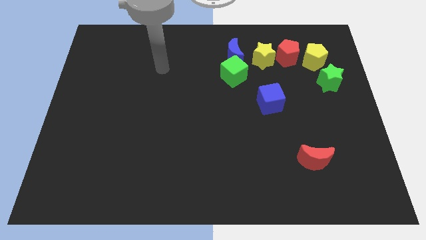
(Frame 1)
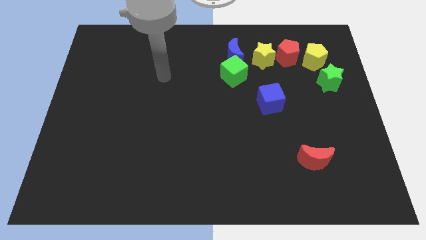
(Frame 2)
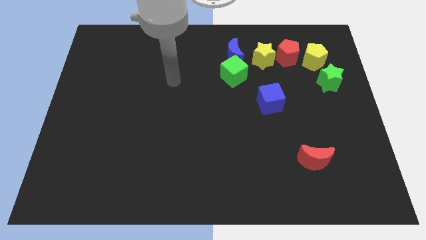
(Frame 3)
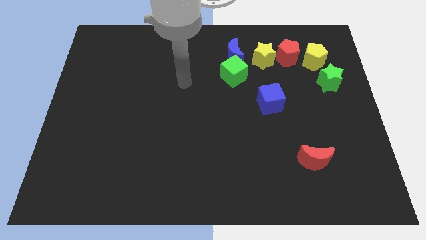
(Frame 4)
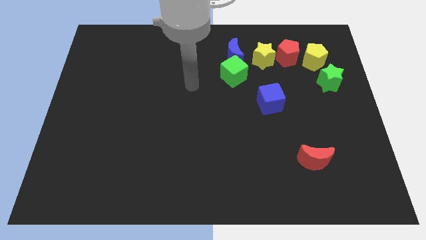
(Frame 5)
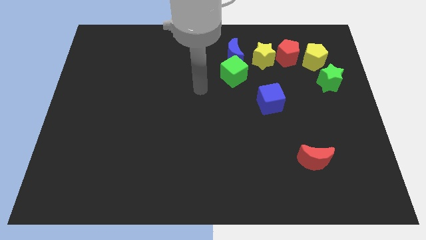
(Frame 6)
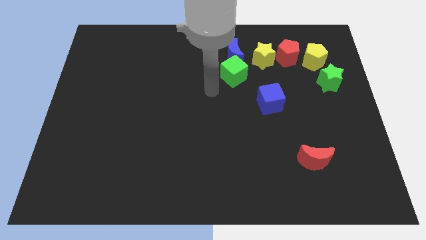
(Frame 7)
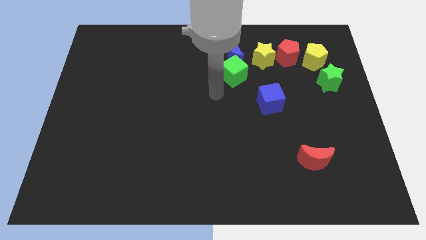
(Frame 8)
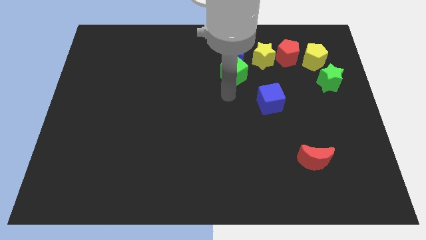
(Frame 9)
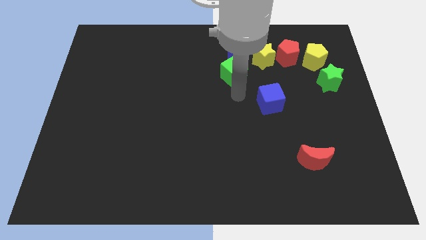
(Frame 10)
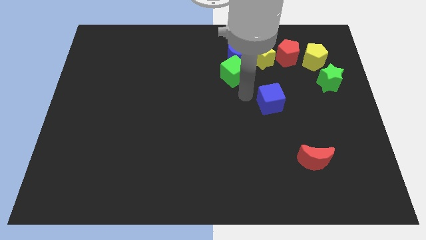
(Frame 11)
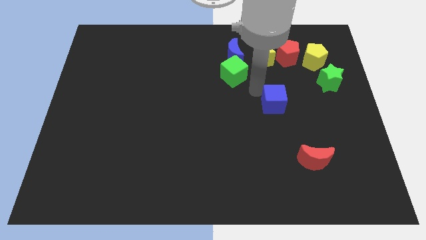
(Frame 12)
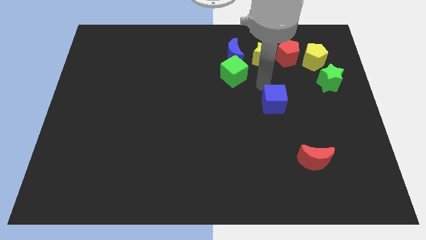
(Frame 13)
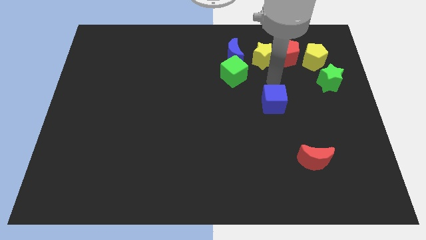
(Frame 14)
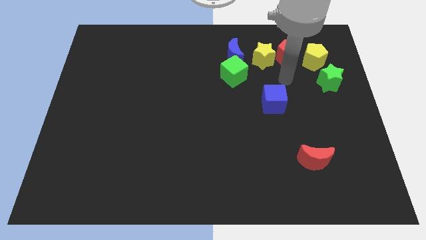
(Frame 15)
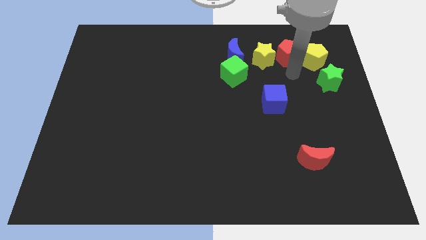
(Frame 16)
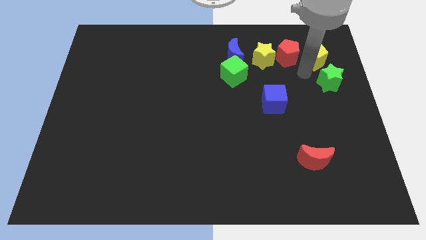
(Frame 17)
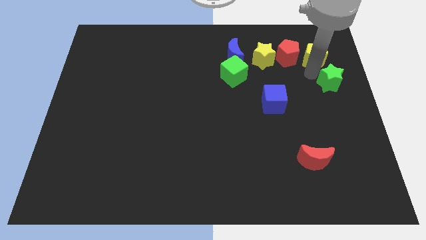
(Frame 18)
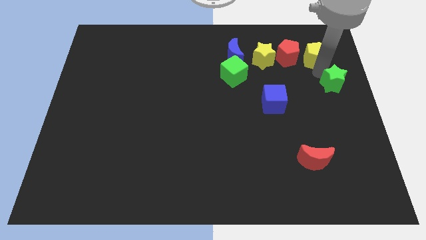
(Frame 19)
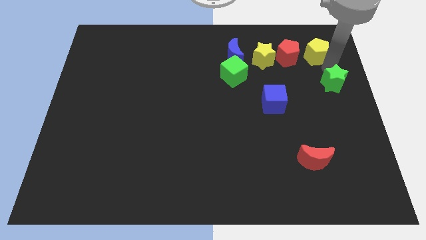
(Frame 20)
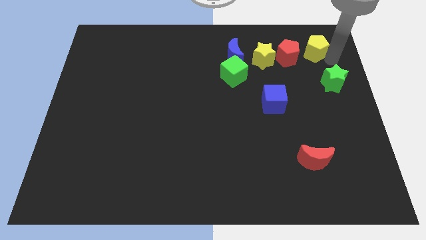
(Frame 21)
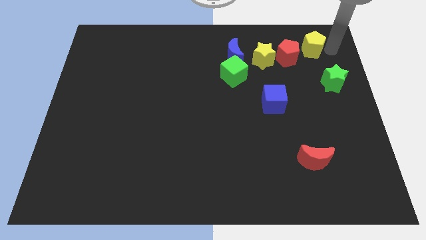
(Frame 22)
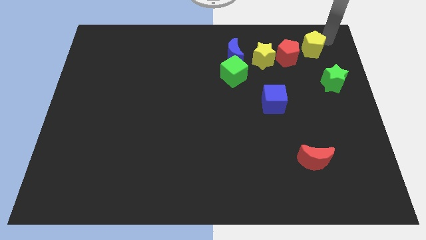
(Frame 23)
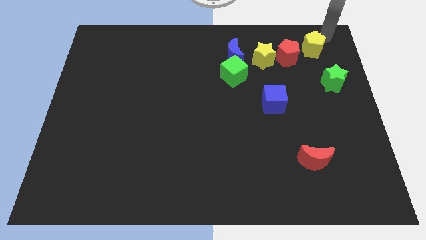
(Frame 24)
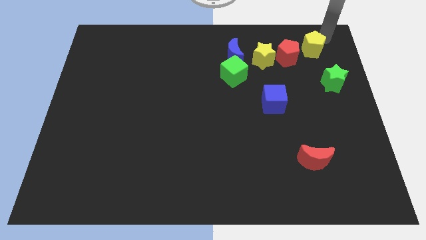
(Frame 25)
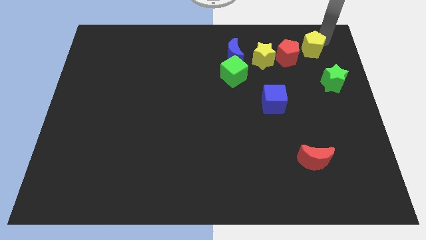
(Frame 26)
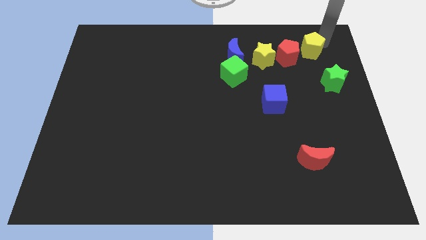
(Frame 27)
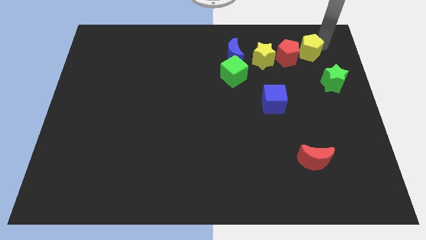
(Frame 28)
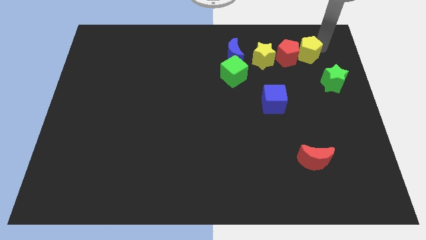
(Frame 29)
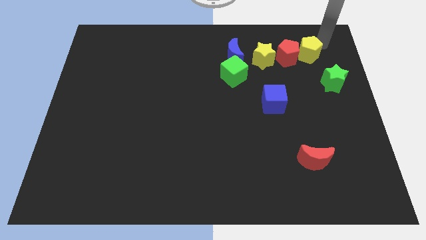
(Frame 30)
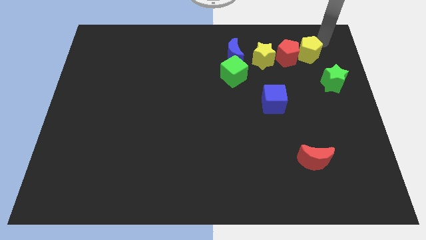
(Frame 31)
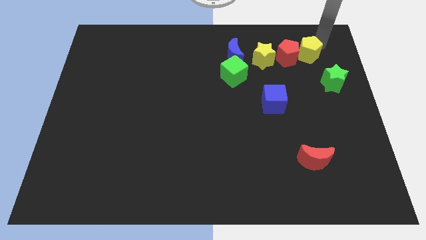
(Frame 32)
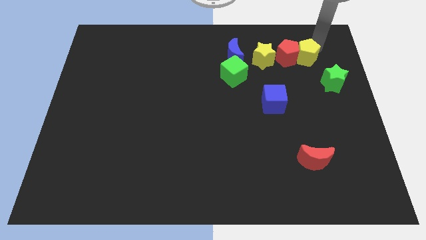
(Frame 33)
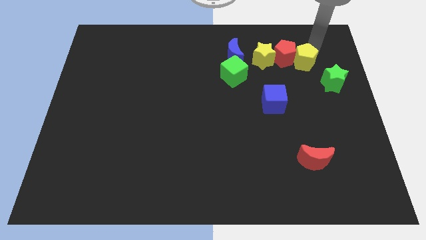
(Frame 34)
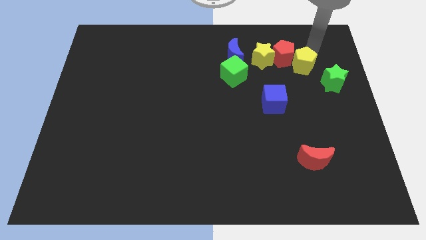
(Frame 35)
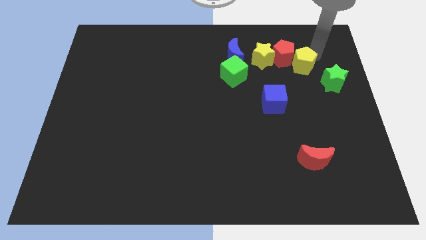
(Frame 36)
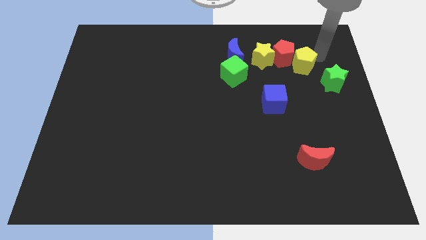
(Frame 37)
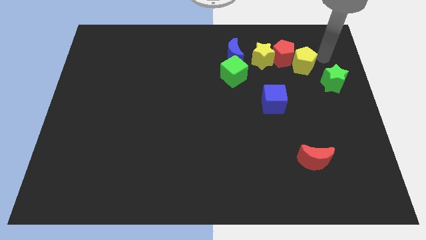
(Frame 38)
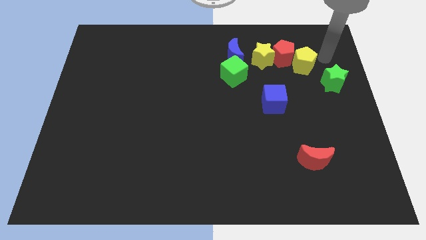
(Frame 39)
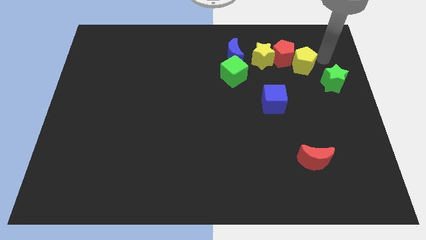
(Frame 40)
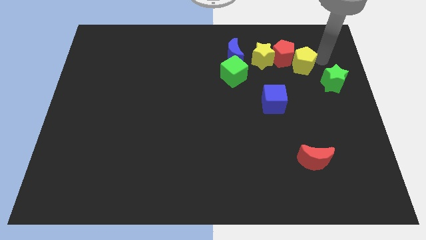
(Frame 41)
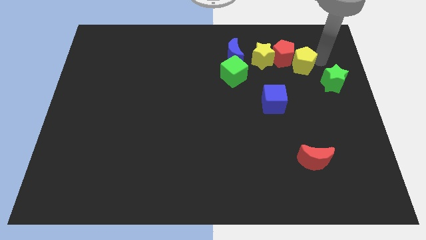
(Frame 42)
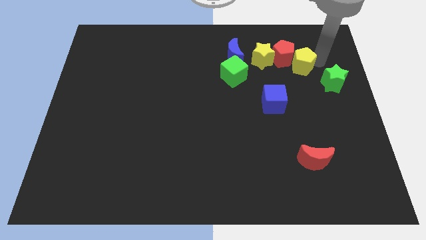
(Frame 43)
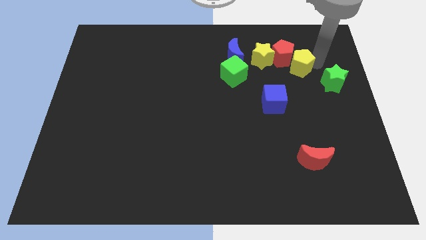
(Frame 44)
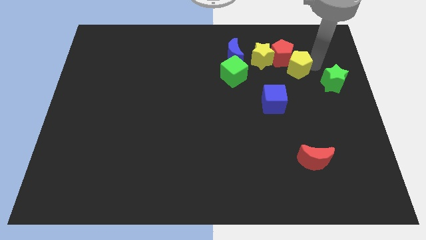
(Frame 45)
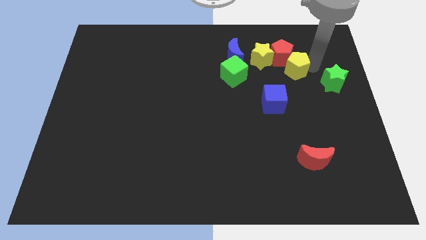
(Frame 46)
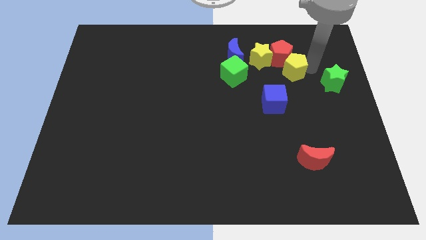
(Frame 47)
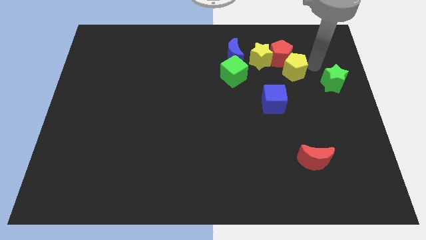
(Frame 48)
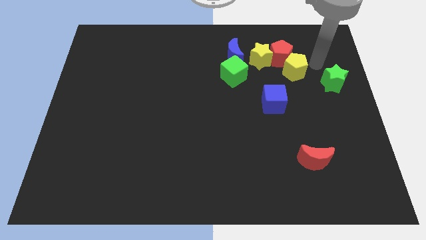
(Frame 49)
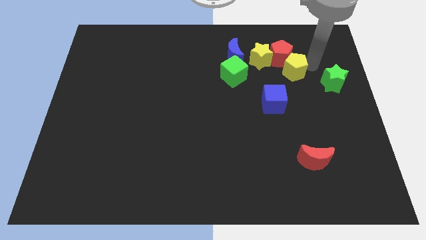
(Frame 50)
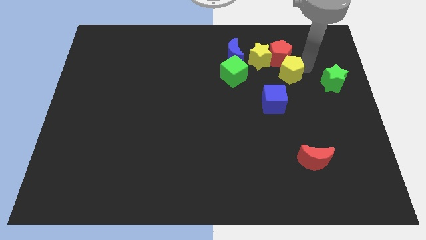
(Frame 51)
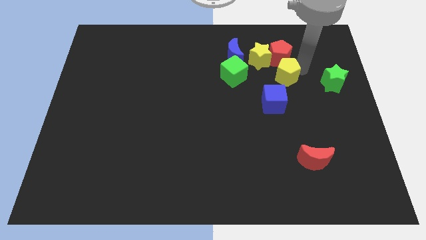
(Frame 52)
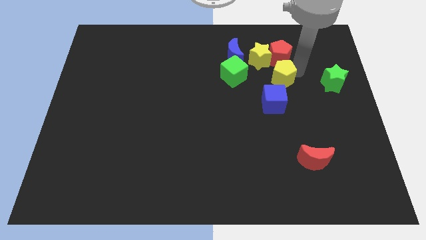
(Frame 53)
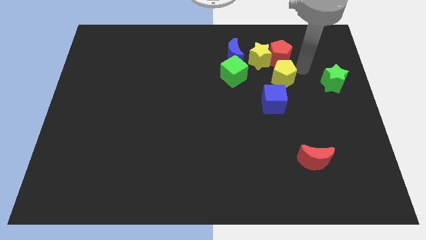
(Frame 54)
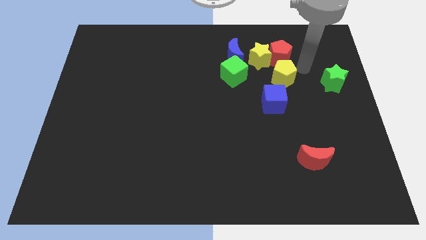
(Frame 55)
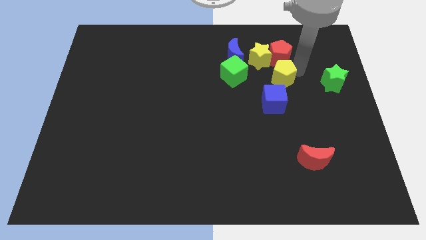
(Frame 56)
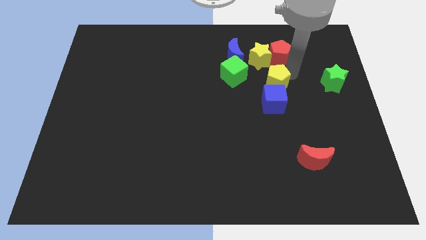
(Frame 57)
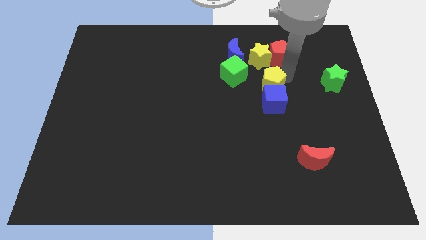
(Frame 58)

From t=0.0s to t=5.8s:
move the yellow pentagon to the bottom right of the green cube

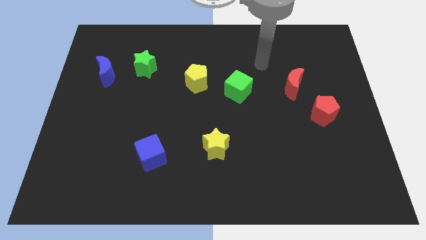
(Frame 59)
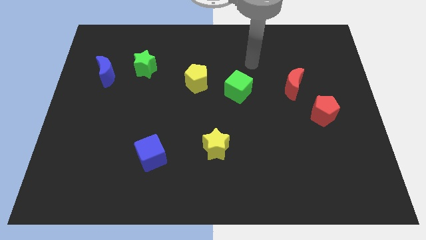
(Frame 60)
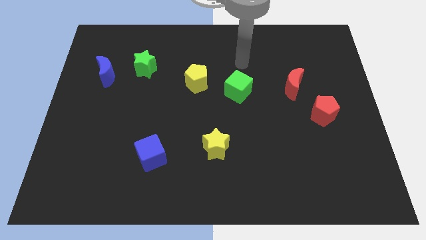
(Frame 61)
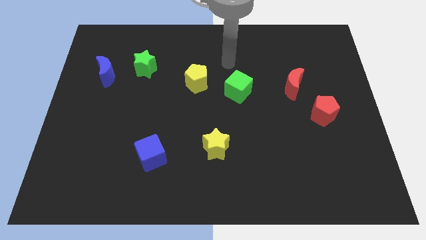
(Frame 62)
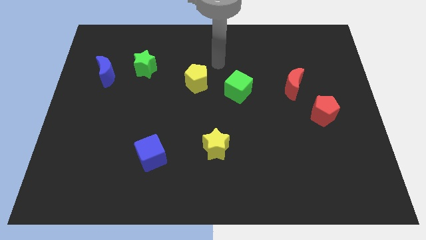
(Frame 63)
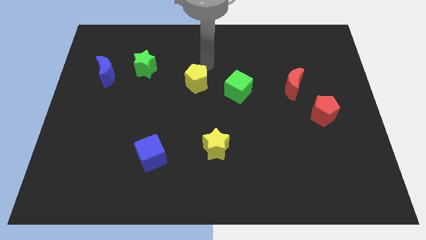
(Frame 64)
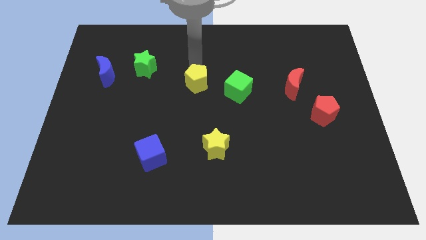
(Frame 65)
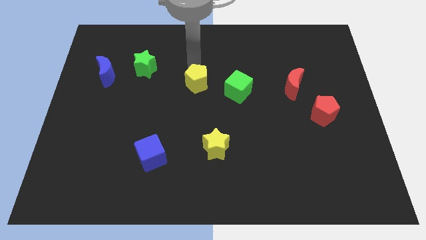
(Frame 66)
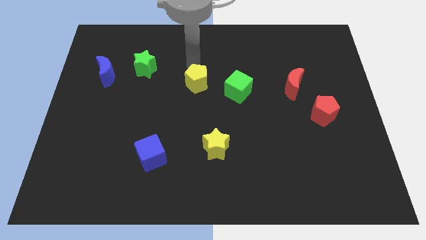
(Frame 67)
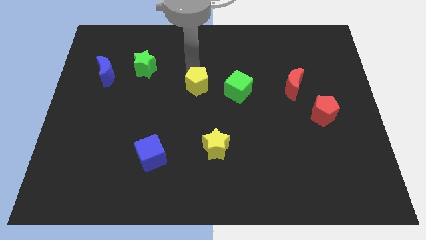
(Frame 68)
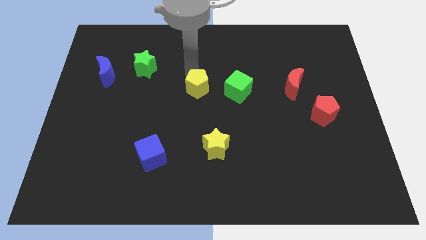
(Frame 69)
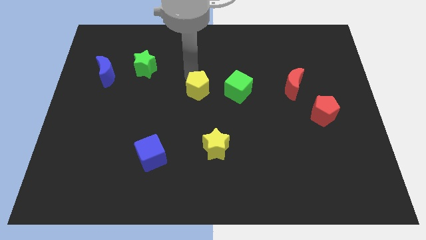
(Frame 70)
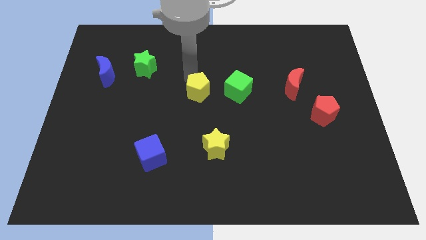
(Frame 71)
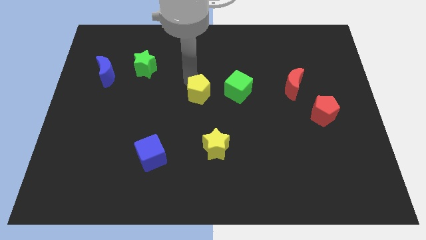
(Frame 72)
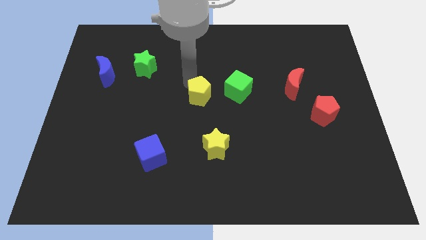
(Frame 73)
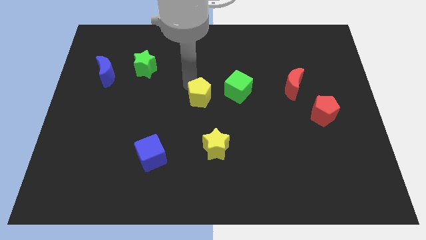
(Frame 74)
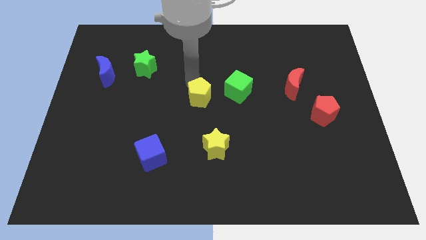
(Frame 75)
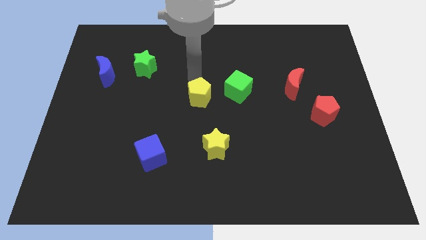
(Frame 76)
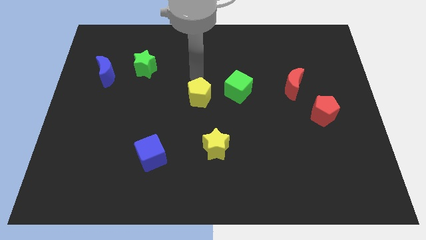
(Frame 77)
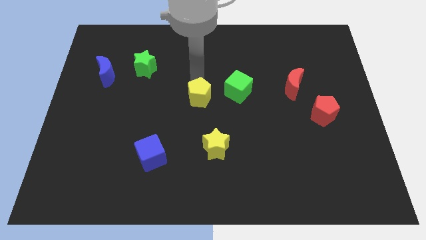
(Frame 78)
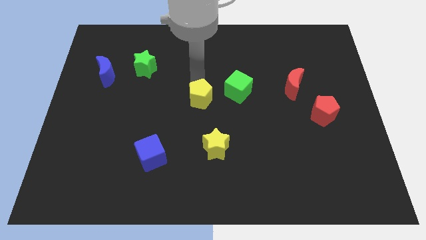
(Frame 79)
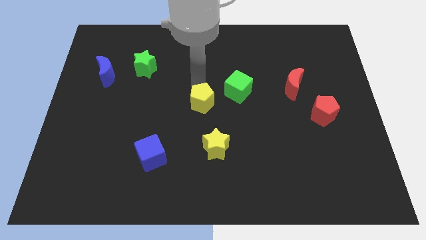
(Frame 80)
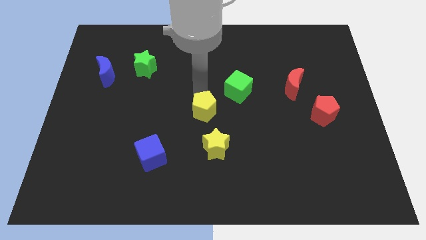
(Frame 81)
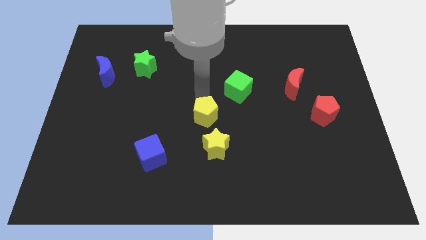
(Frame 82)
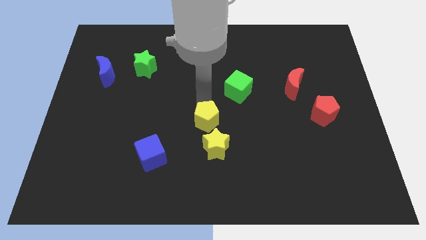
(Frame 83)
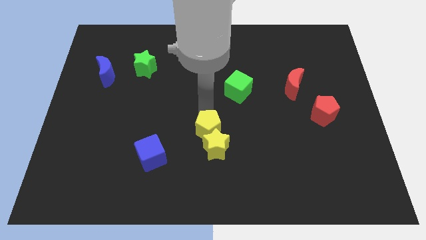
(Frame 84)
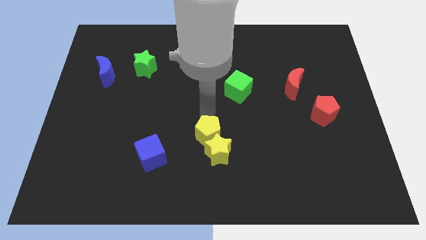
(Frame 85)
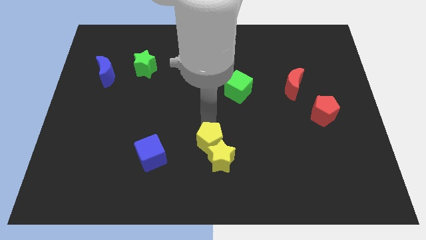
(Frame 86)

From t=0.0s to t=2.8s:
move the yellow pentagon just right of the blue cube

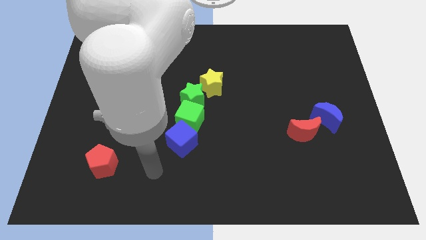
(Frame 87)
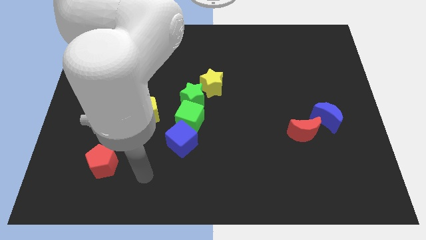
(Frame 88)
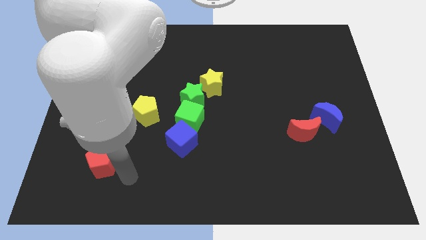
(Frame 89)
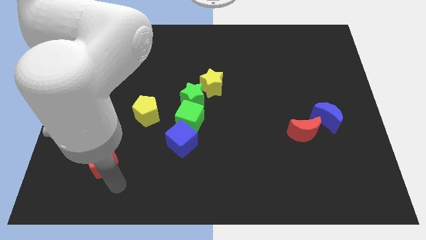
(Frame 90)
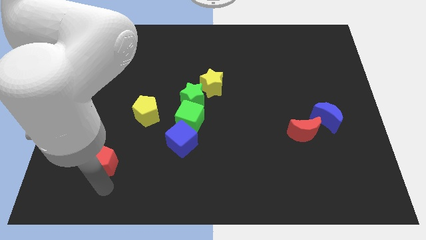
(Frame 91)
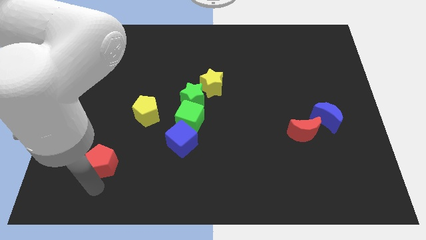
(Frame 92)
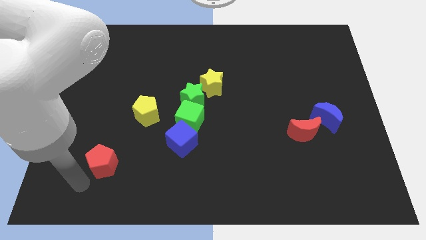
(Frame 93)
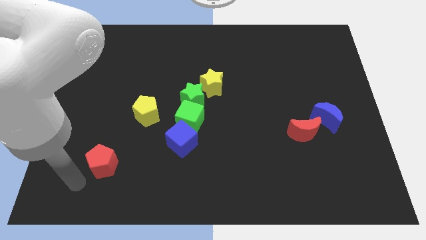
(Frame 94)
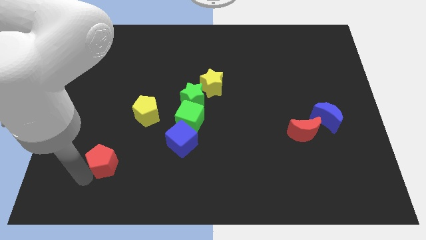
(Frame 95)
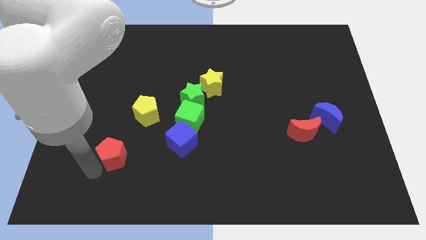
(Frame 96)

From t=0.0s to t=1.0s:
move the red pentagon just left of the blue cube
